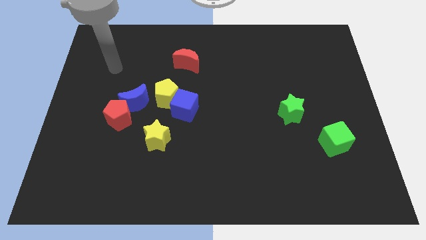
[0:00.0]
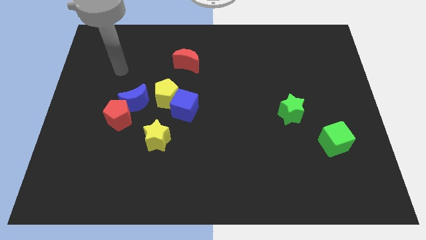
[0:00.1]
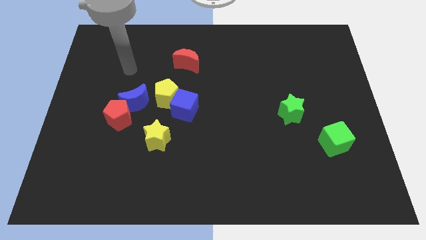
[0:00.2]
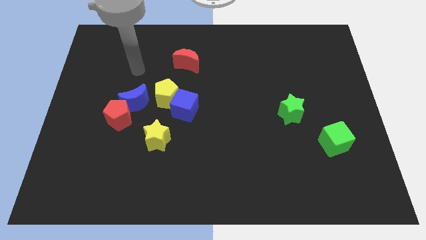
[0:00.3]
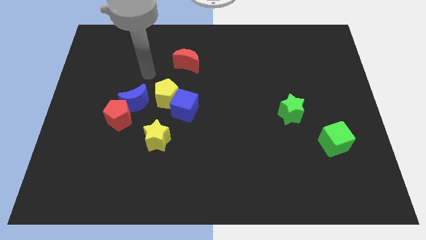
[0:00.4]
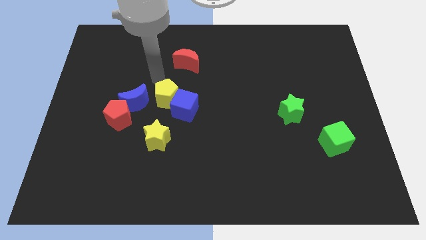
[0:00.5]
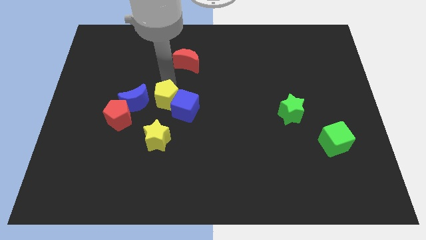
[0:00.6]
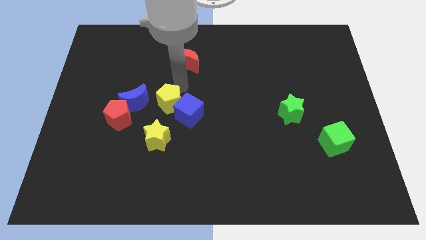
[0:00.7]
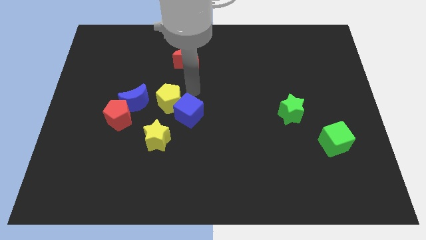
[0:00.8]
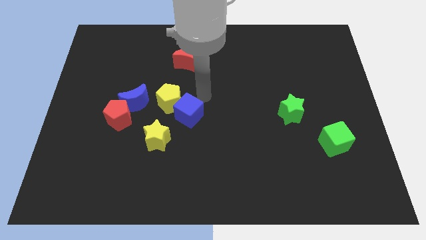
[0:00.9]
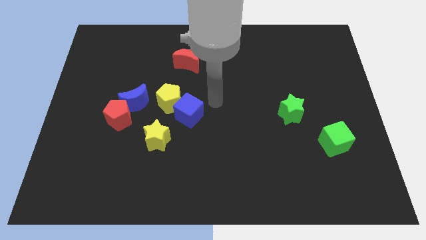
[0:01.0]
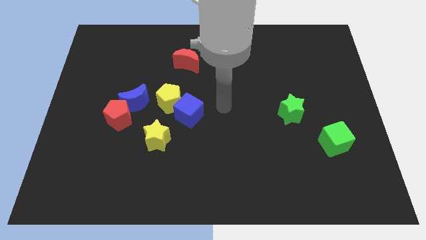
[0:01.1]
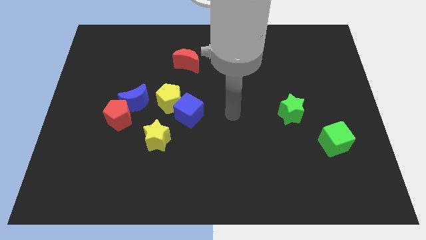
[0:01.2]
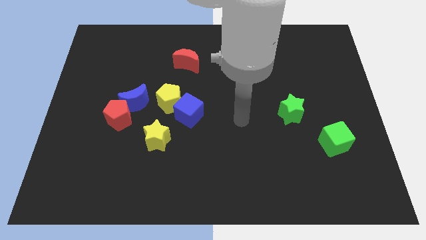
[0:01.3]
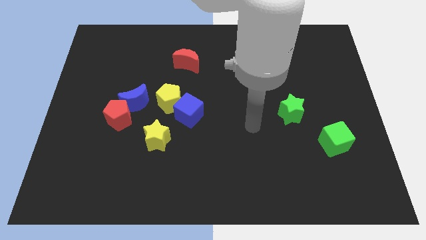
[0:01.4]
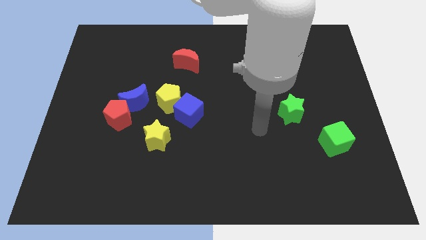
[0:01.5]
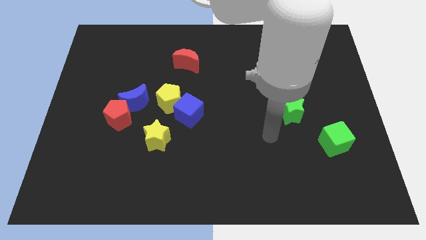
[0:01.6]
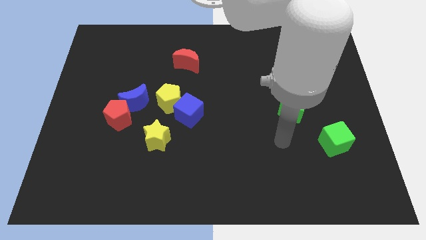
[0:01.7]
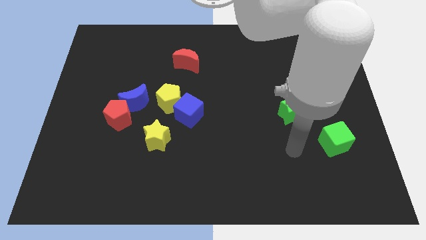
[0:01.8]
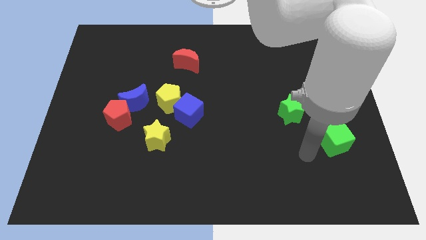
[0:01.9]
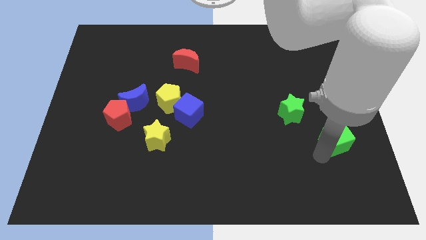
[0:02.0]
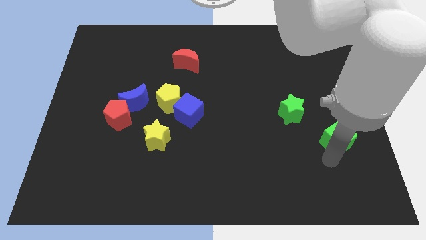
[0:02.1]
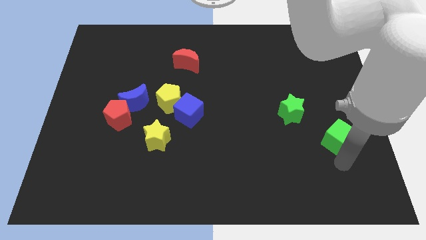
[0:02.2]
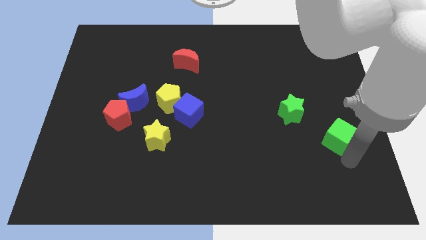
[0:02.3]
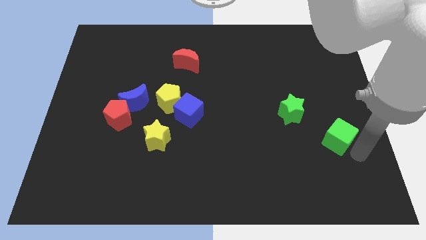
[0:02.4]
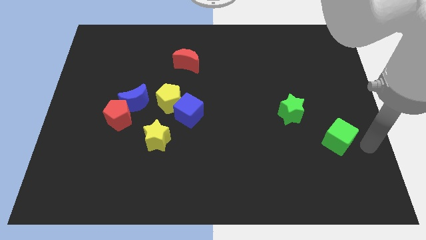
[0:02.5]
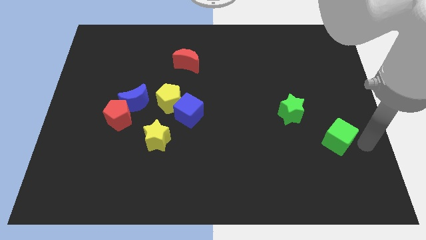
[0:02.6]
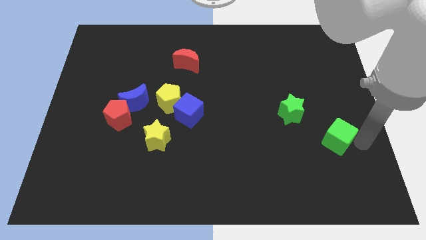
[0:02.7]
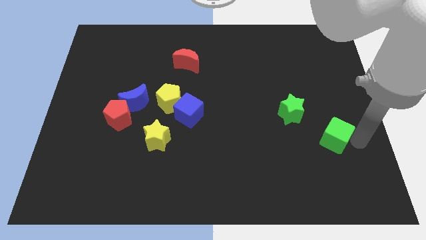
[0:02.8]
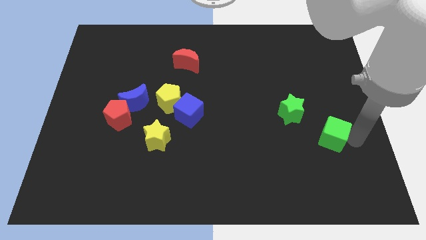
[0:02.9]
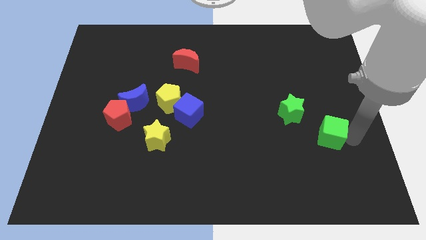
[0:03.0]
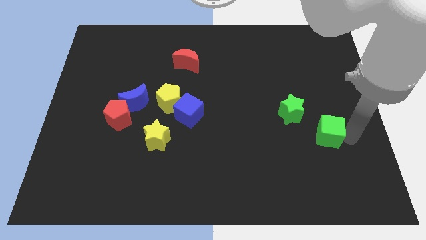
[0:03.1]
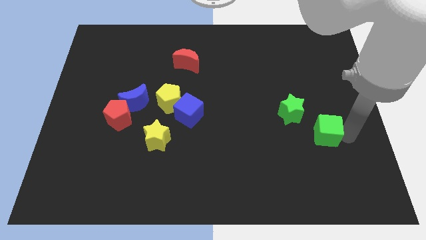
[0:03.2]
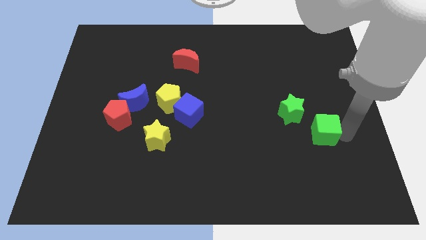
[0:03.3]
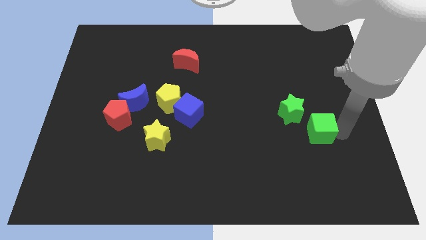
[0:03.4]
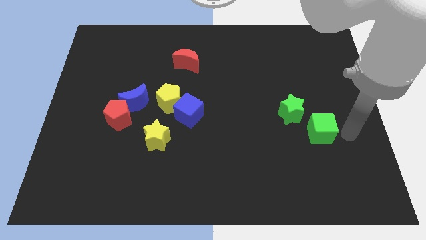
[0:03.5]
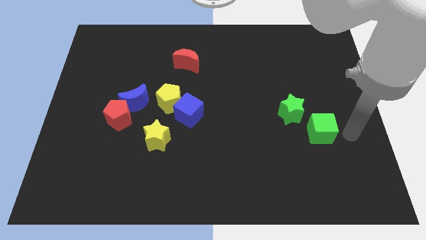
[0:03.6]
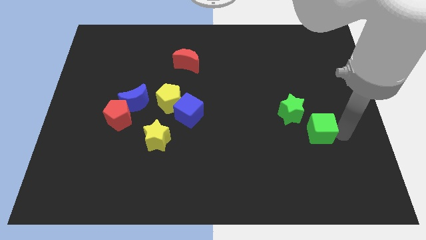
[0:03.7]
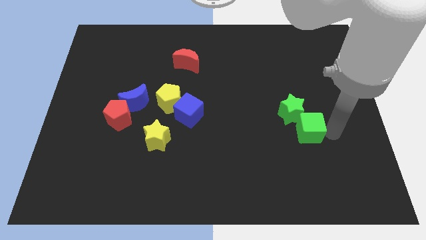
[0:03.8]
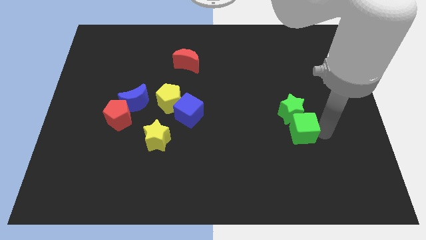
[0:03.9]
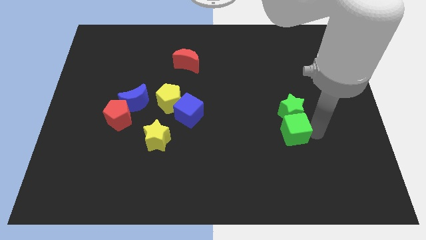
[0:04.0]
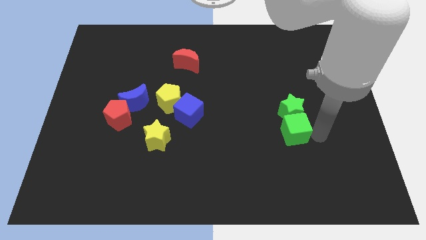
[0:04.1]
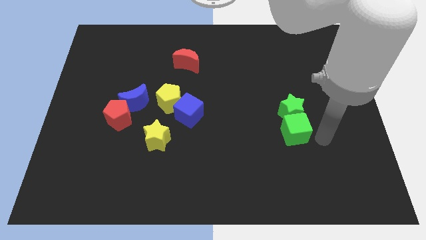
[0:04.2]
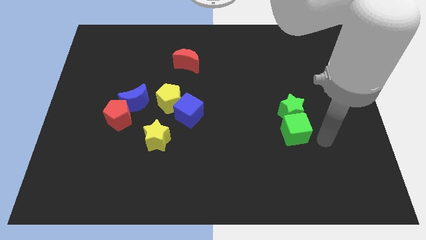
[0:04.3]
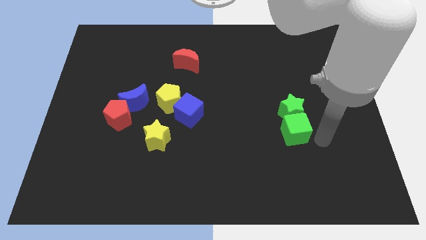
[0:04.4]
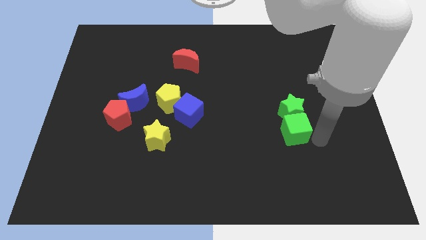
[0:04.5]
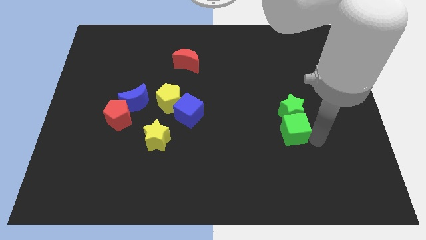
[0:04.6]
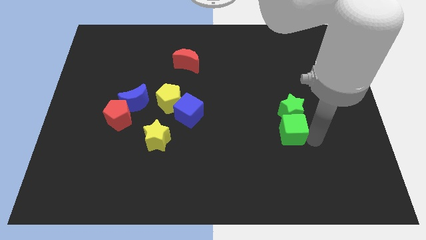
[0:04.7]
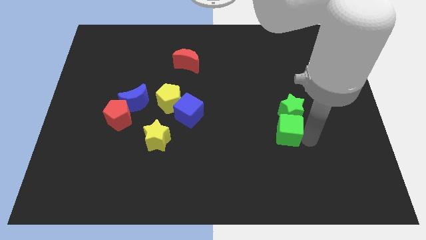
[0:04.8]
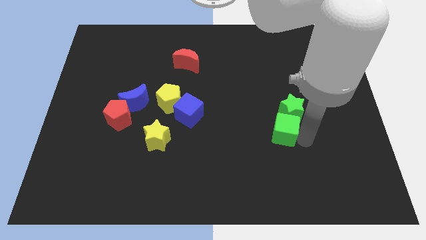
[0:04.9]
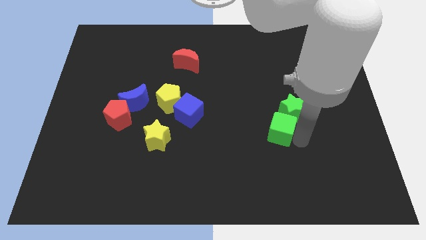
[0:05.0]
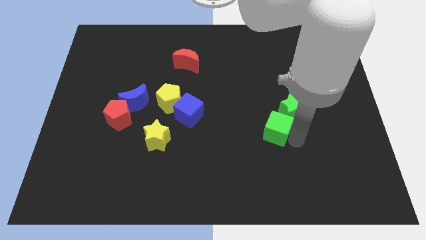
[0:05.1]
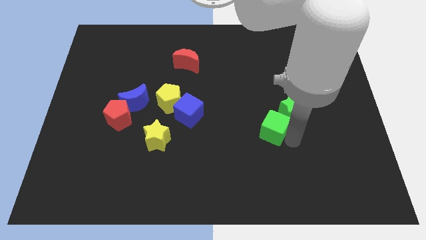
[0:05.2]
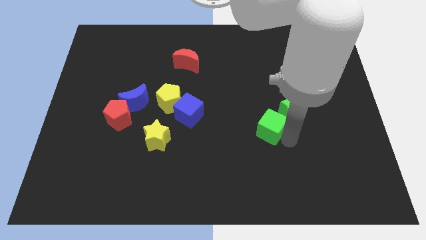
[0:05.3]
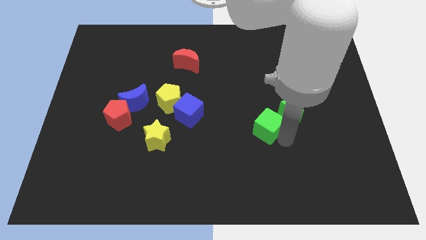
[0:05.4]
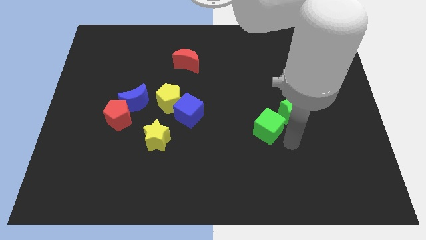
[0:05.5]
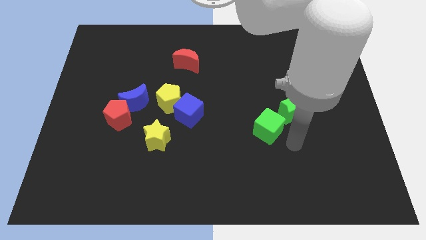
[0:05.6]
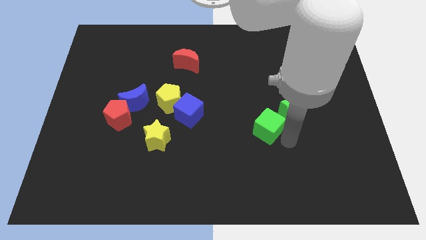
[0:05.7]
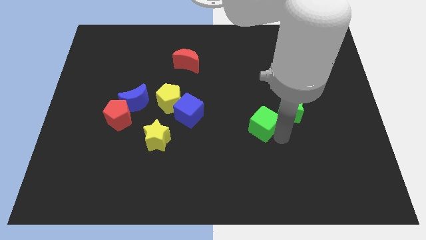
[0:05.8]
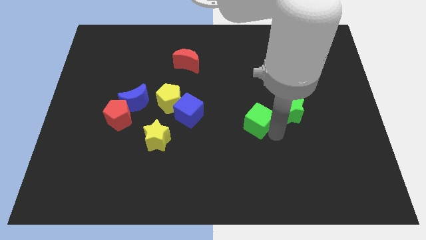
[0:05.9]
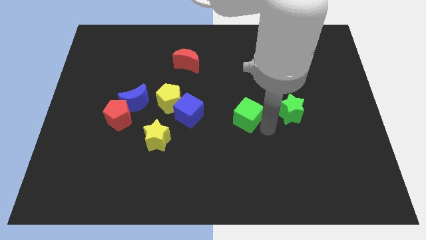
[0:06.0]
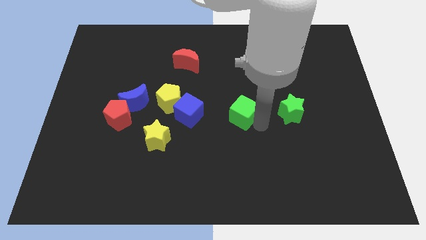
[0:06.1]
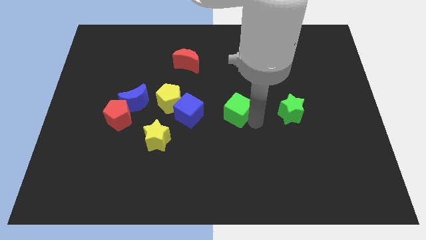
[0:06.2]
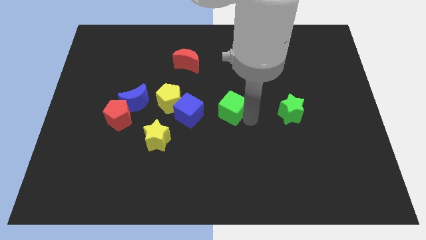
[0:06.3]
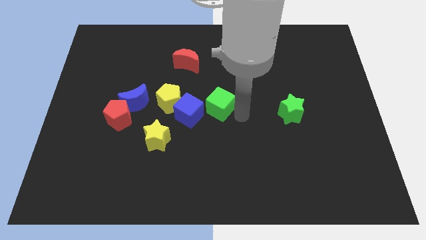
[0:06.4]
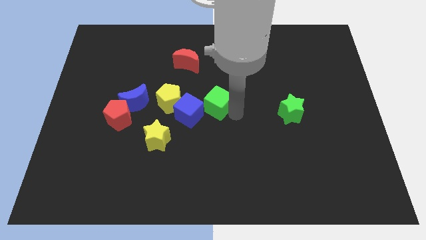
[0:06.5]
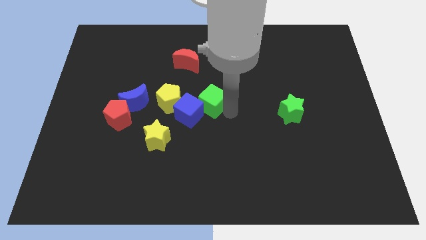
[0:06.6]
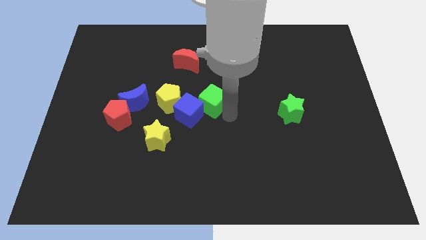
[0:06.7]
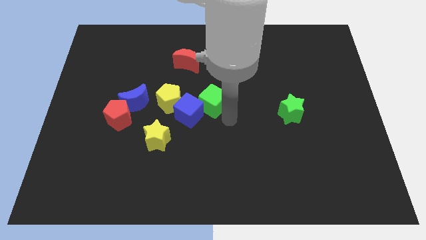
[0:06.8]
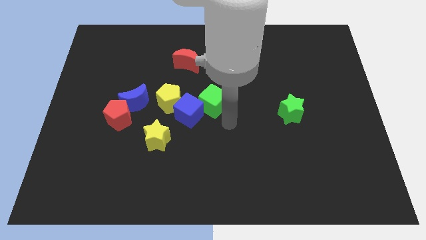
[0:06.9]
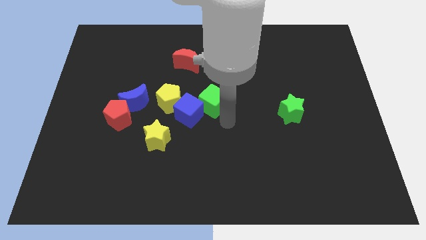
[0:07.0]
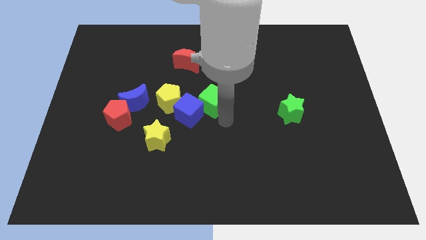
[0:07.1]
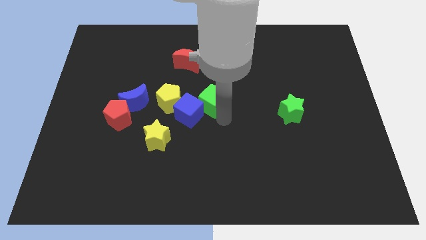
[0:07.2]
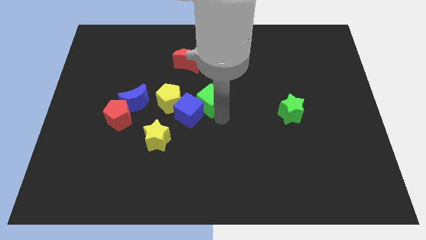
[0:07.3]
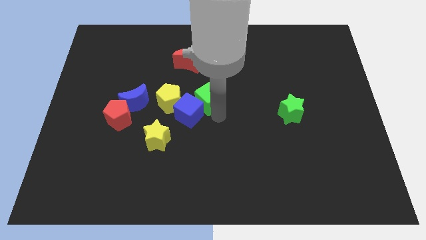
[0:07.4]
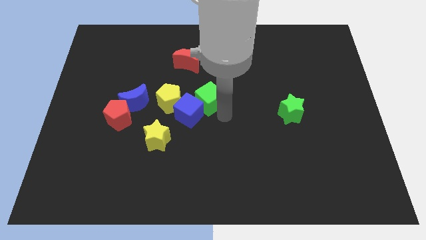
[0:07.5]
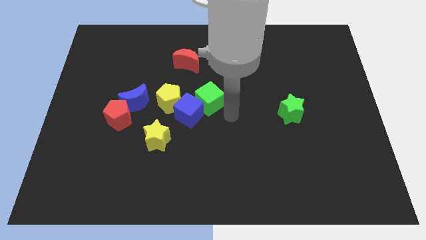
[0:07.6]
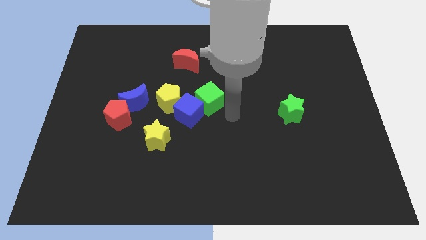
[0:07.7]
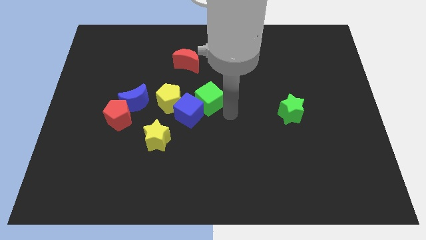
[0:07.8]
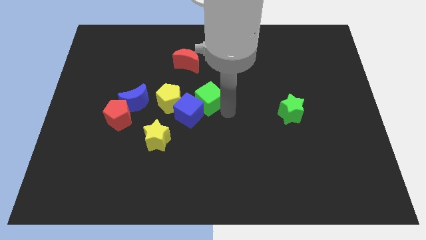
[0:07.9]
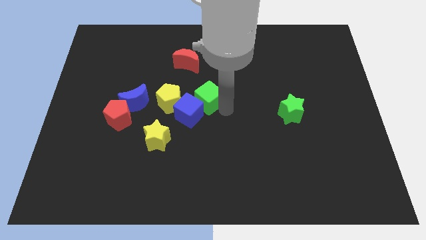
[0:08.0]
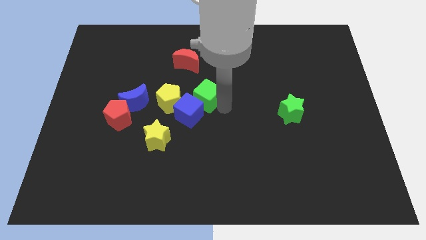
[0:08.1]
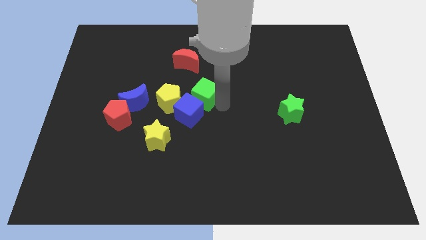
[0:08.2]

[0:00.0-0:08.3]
slide the green cube below the red moon
